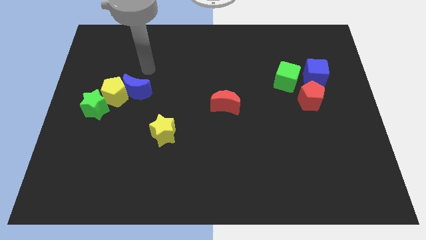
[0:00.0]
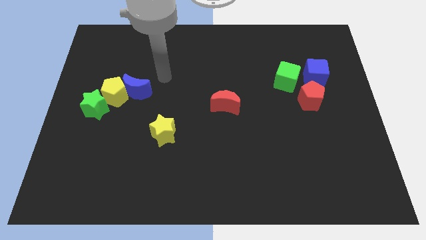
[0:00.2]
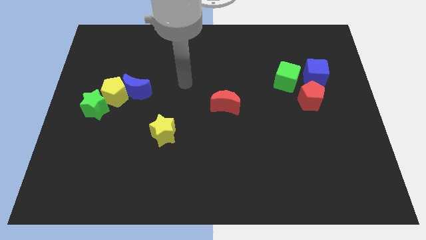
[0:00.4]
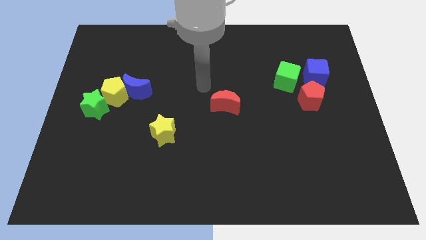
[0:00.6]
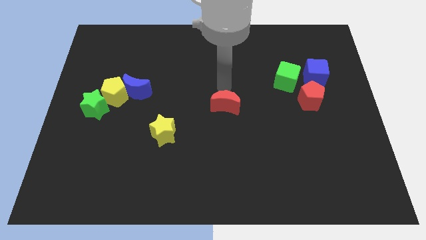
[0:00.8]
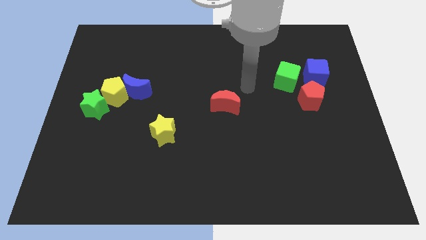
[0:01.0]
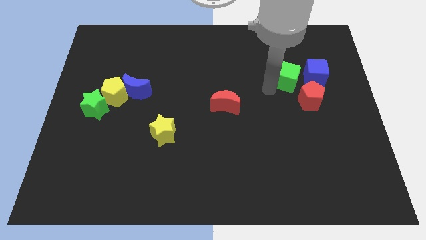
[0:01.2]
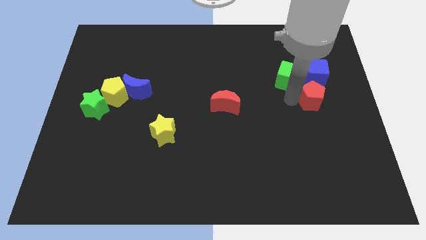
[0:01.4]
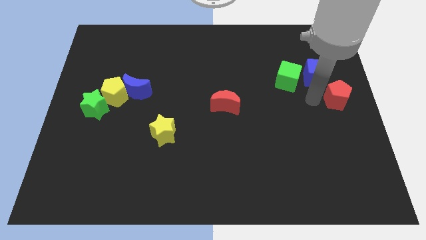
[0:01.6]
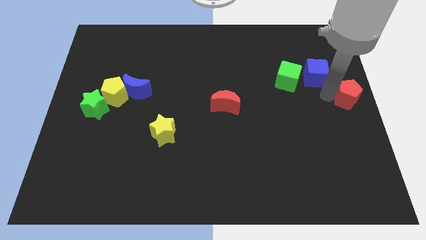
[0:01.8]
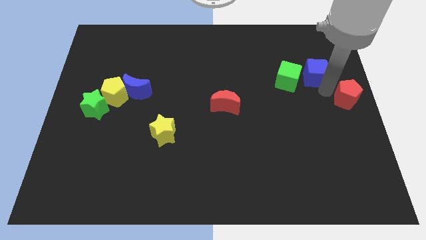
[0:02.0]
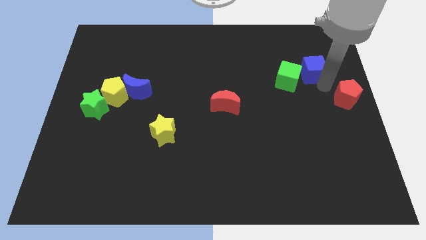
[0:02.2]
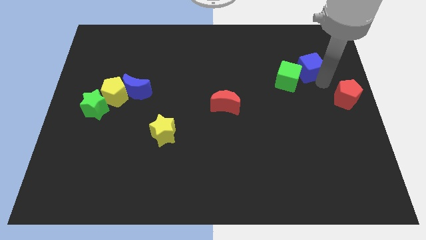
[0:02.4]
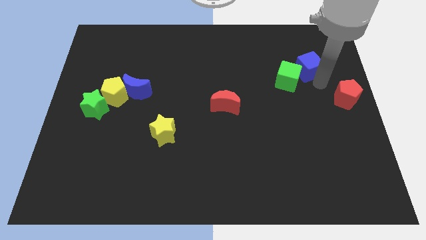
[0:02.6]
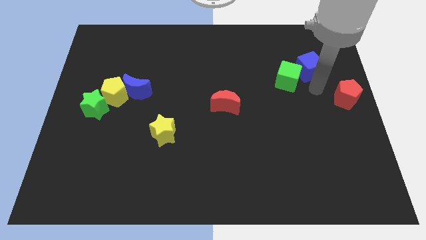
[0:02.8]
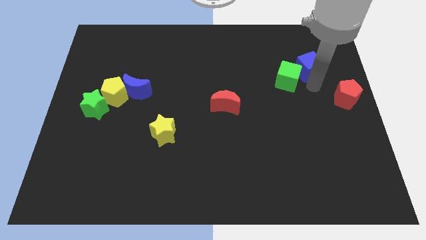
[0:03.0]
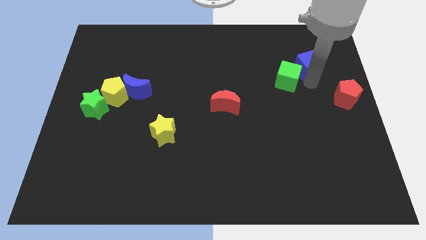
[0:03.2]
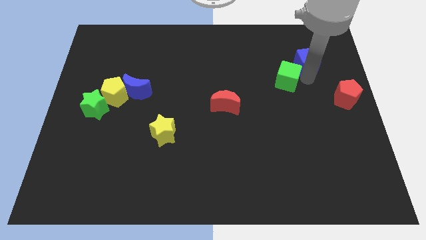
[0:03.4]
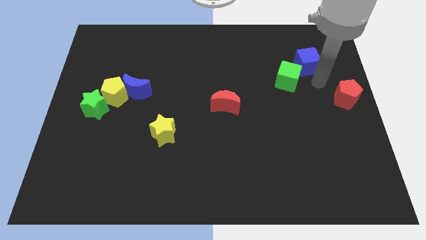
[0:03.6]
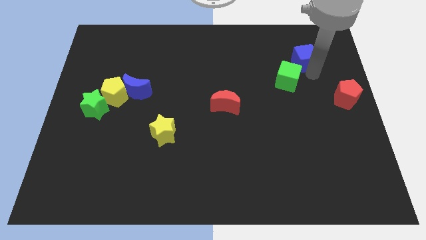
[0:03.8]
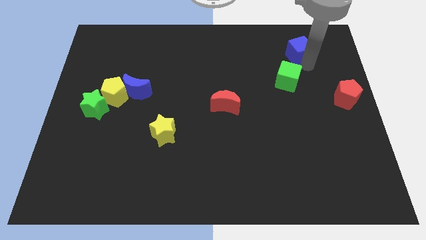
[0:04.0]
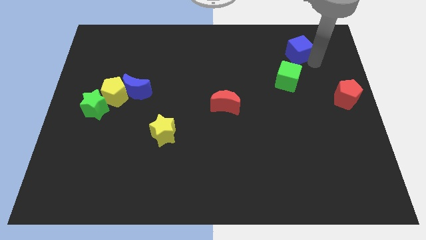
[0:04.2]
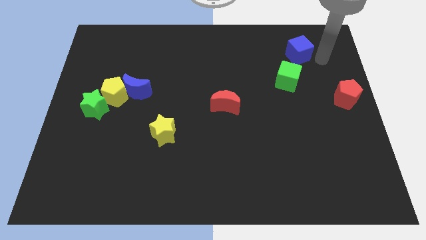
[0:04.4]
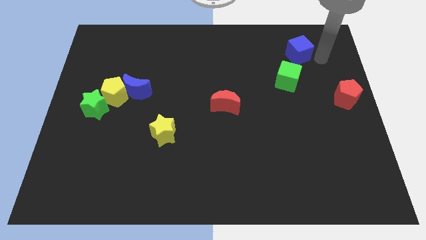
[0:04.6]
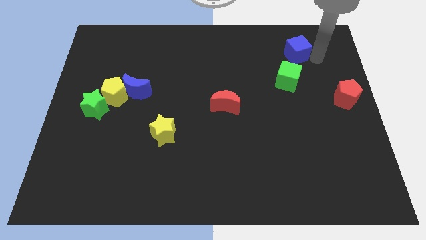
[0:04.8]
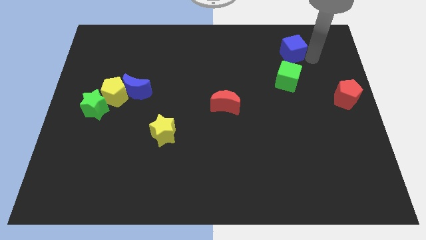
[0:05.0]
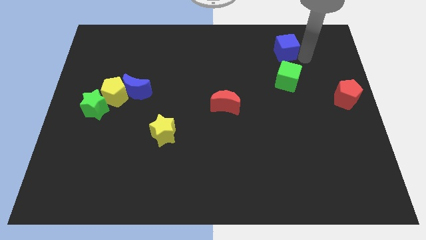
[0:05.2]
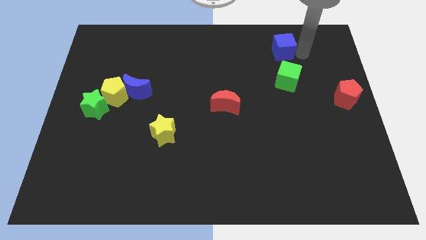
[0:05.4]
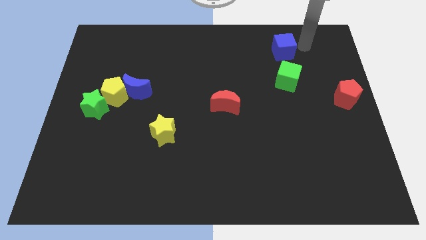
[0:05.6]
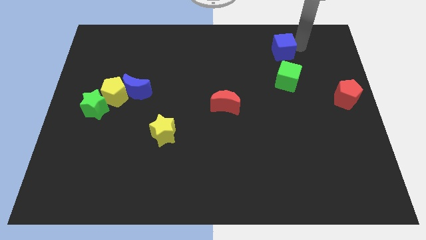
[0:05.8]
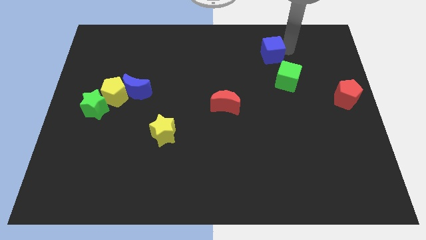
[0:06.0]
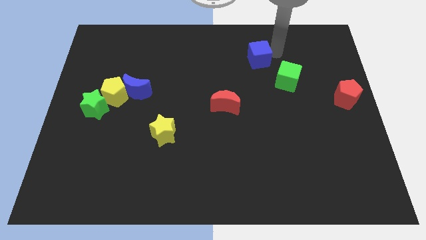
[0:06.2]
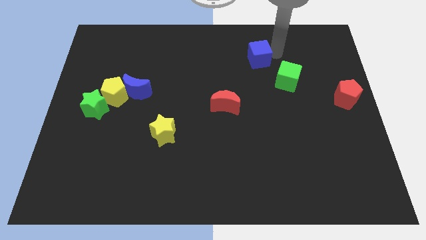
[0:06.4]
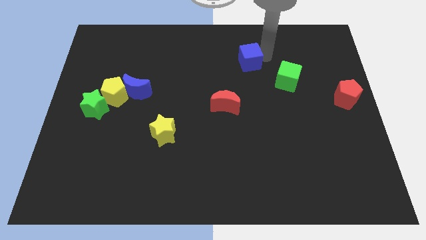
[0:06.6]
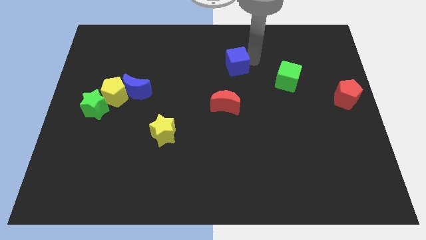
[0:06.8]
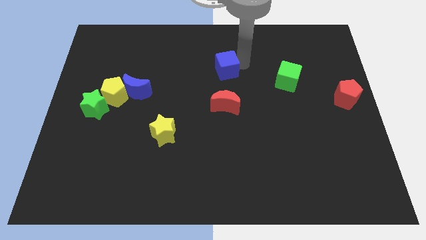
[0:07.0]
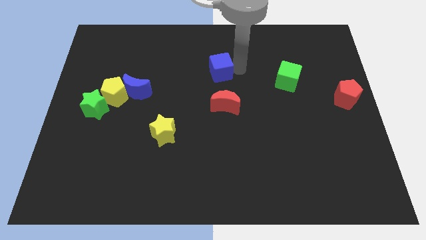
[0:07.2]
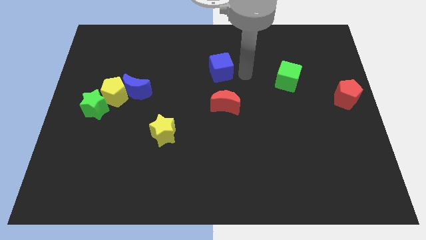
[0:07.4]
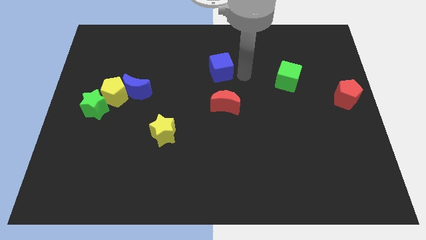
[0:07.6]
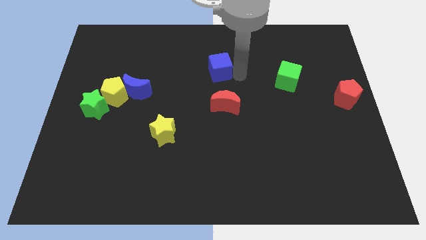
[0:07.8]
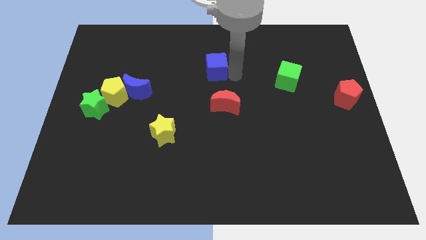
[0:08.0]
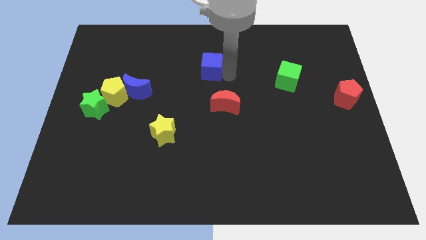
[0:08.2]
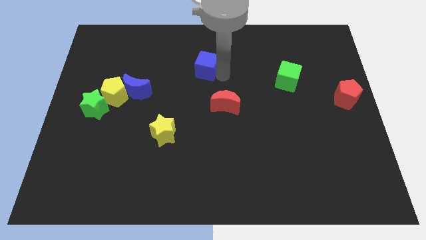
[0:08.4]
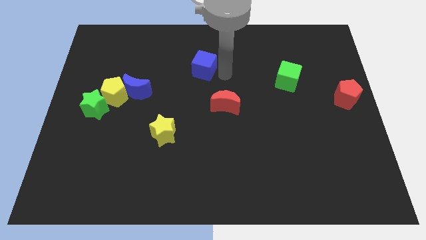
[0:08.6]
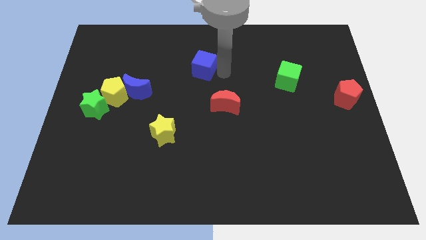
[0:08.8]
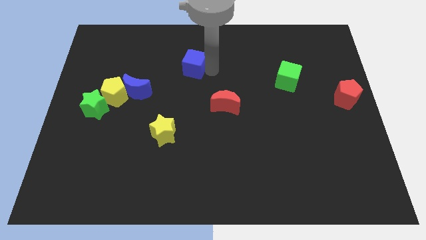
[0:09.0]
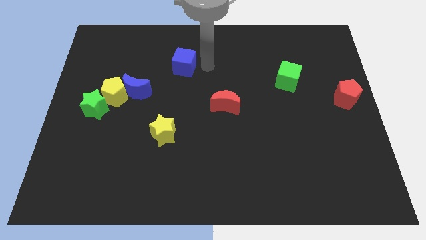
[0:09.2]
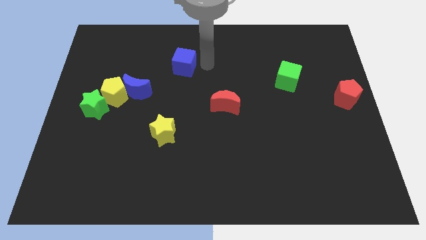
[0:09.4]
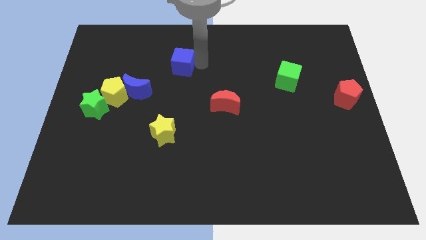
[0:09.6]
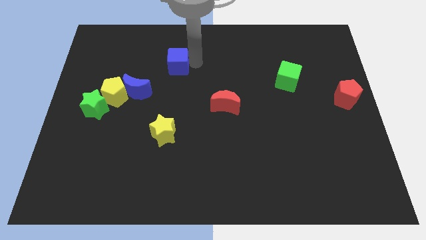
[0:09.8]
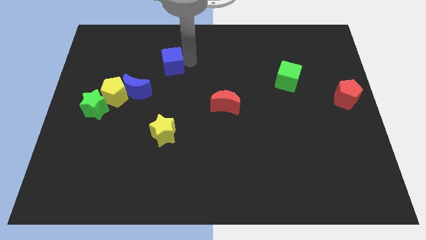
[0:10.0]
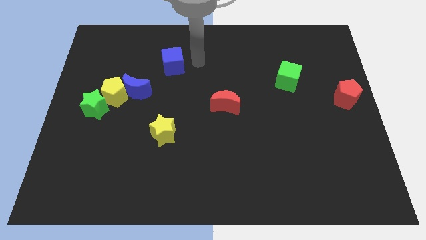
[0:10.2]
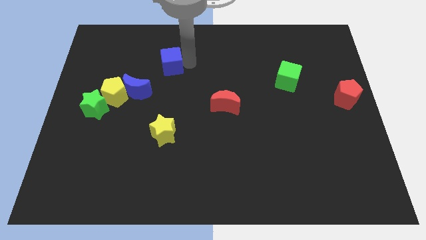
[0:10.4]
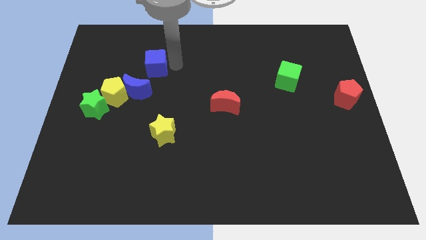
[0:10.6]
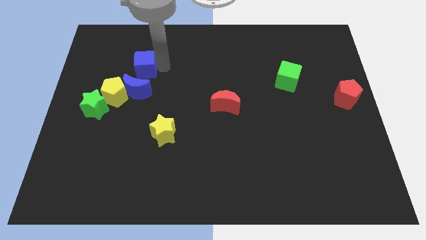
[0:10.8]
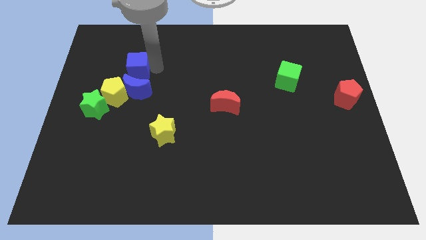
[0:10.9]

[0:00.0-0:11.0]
push the blue cube to the top of the yellow pentagon

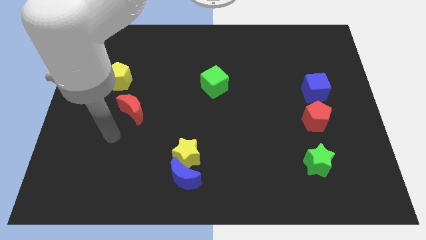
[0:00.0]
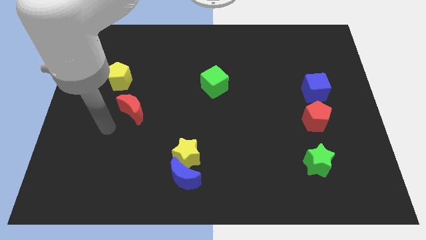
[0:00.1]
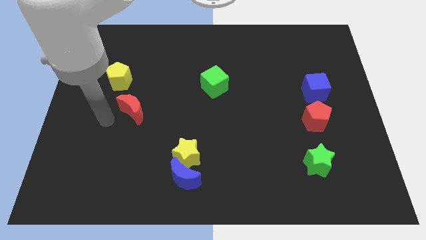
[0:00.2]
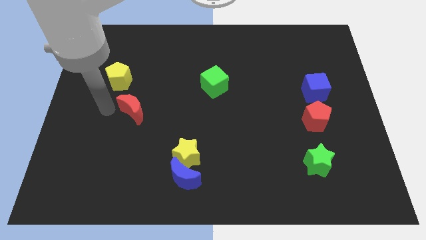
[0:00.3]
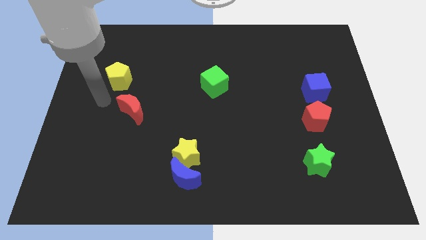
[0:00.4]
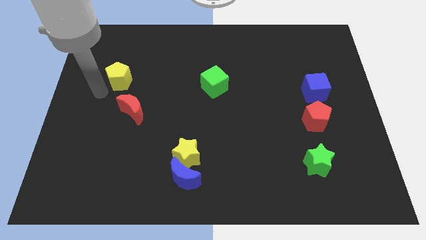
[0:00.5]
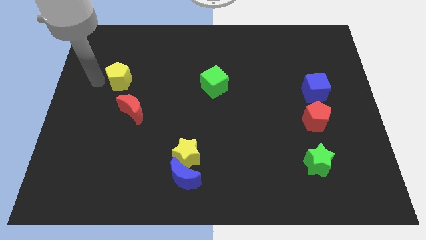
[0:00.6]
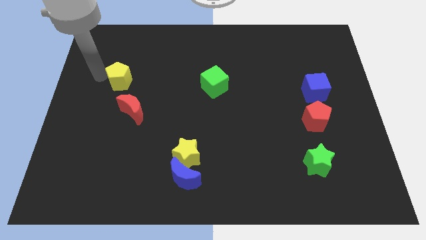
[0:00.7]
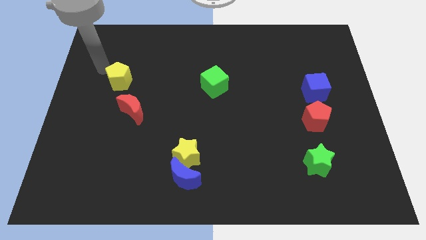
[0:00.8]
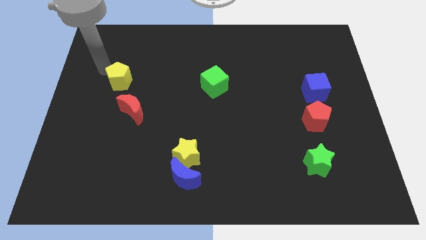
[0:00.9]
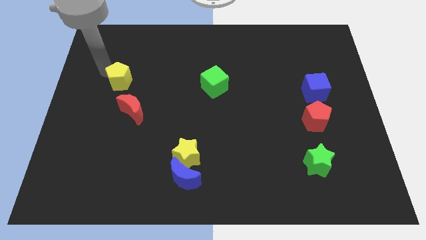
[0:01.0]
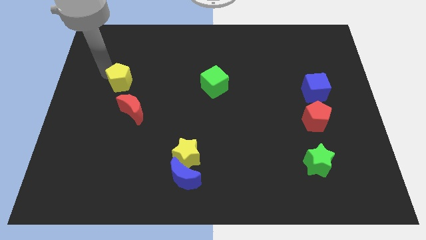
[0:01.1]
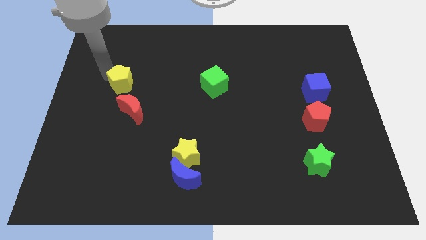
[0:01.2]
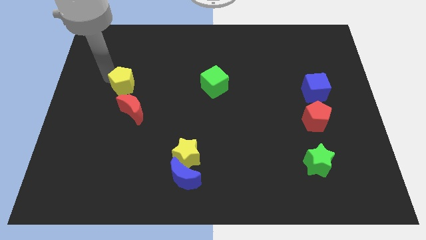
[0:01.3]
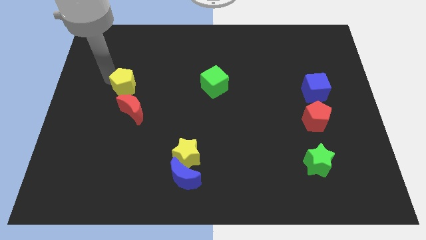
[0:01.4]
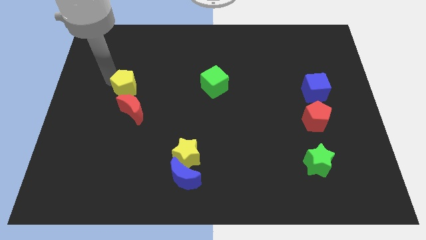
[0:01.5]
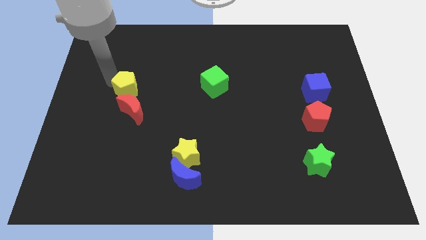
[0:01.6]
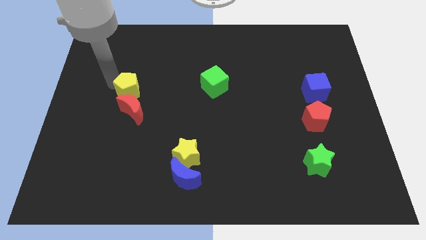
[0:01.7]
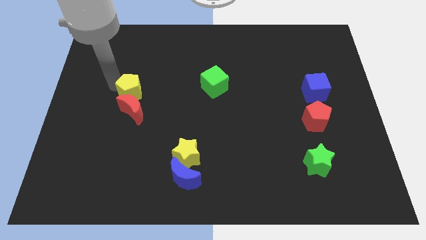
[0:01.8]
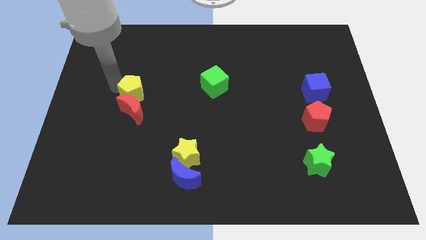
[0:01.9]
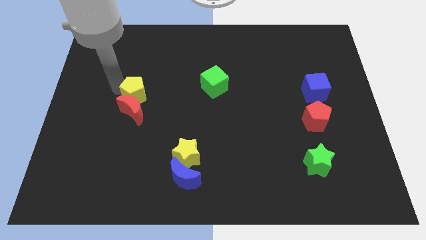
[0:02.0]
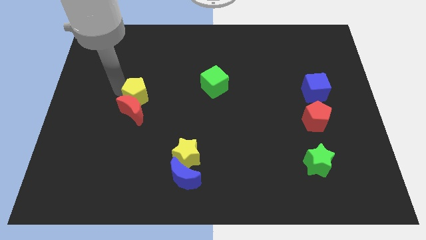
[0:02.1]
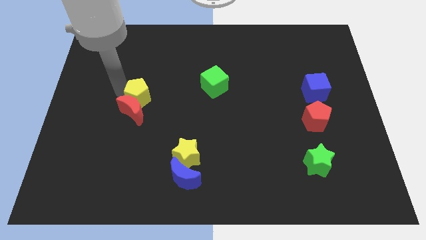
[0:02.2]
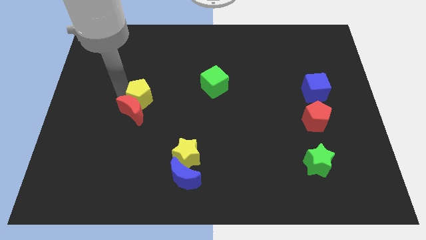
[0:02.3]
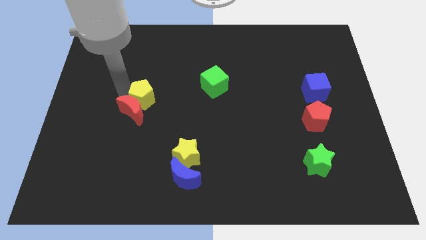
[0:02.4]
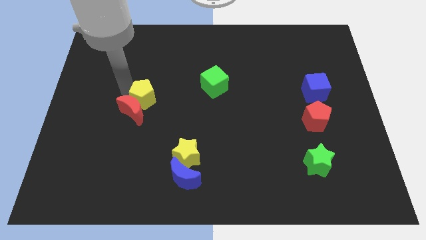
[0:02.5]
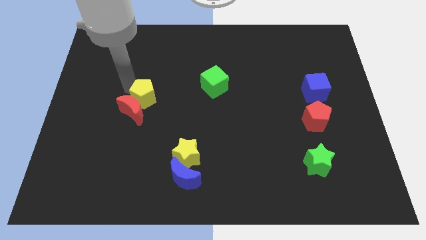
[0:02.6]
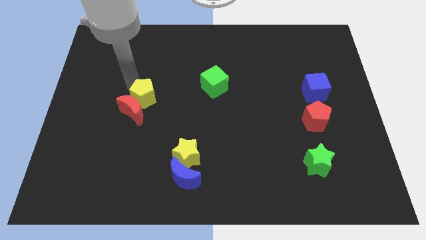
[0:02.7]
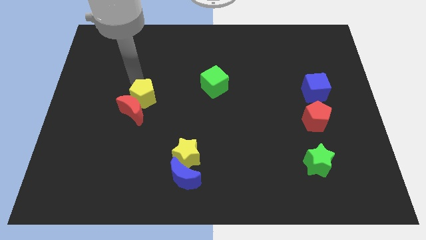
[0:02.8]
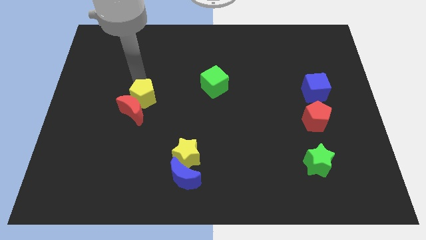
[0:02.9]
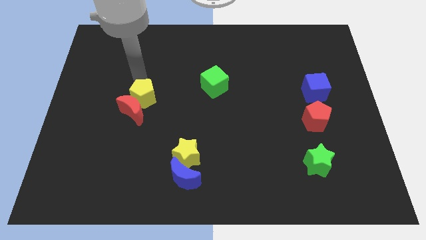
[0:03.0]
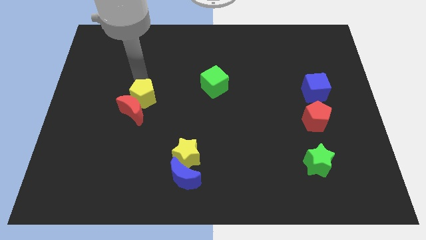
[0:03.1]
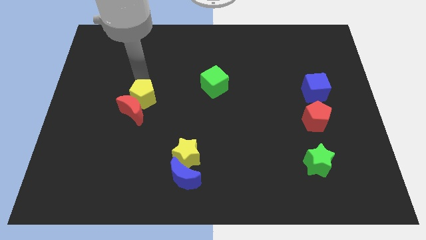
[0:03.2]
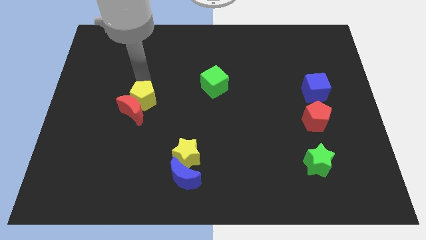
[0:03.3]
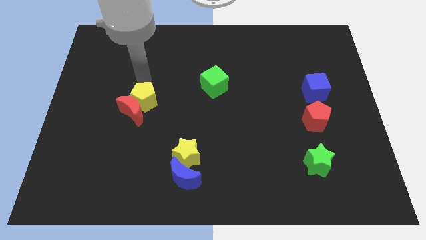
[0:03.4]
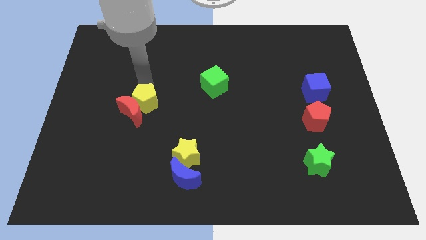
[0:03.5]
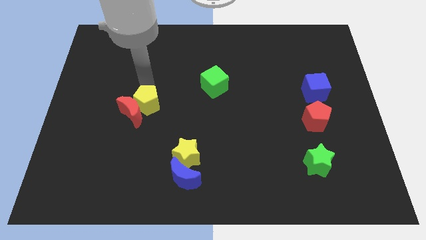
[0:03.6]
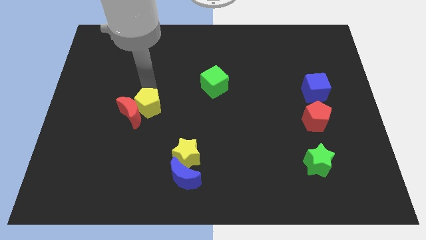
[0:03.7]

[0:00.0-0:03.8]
push the yellow pentagon to the bottom right side of the red moon
